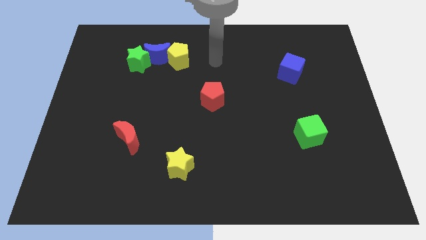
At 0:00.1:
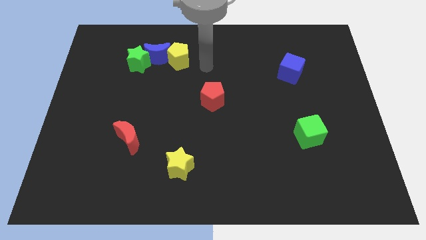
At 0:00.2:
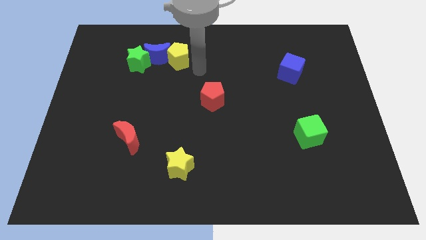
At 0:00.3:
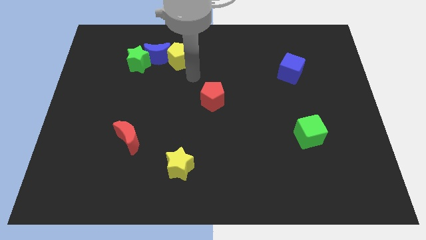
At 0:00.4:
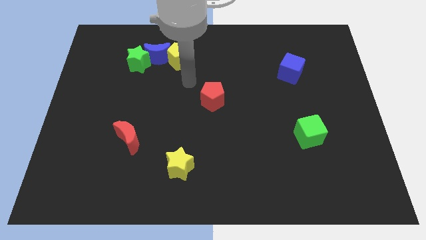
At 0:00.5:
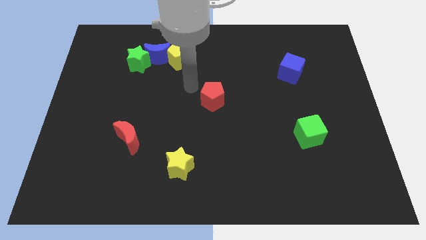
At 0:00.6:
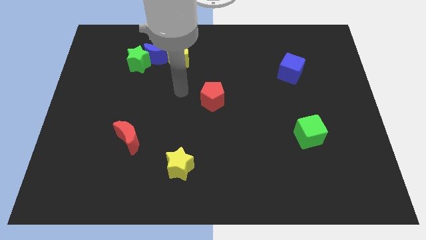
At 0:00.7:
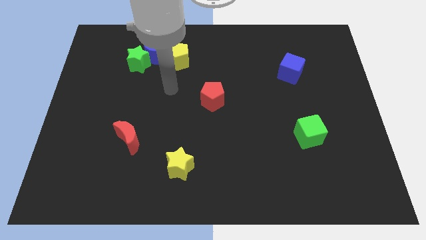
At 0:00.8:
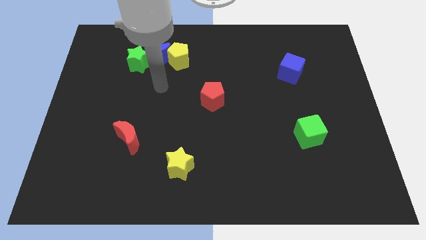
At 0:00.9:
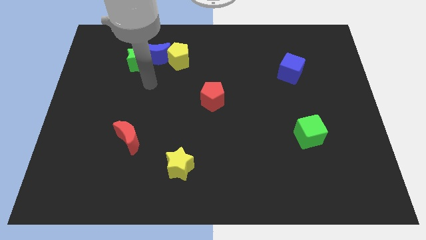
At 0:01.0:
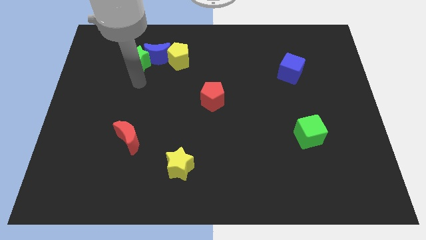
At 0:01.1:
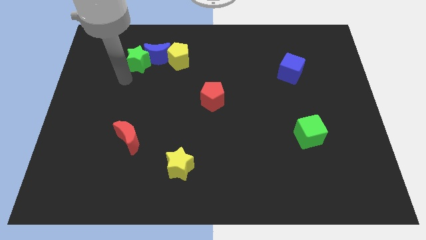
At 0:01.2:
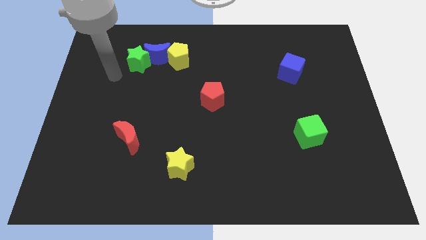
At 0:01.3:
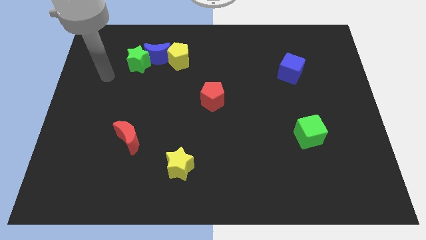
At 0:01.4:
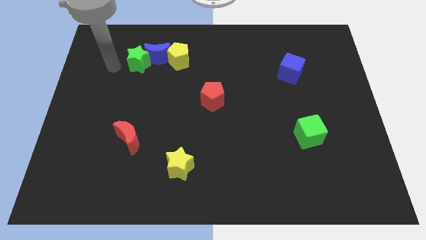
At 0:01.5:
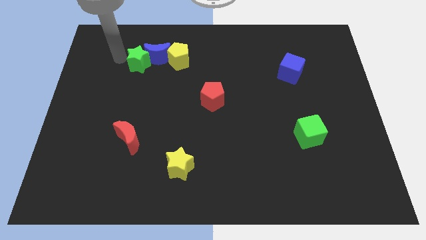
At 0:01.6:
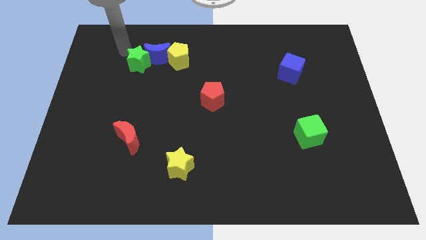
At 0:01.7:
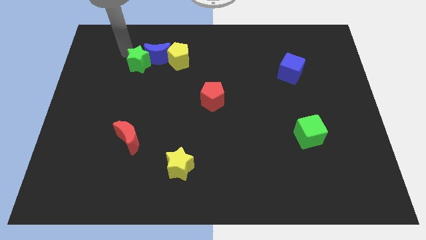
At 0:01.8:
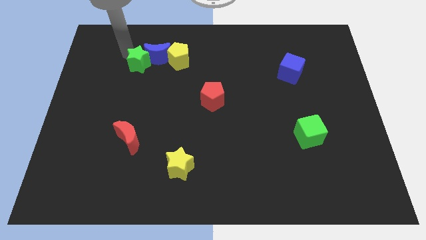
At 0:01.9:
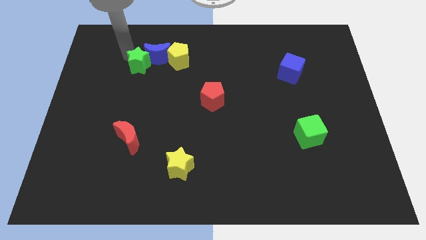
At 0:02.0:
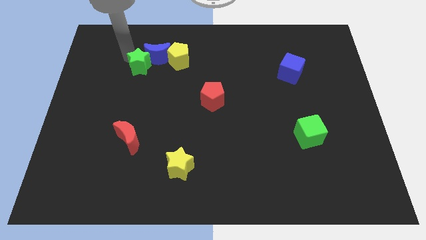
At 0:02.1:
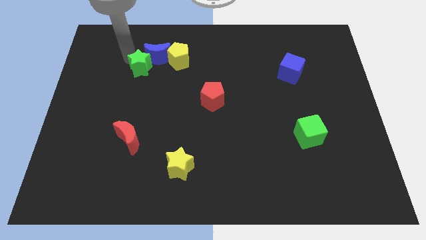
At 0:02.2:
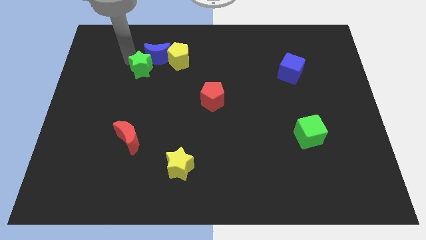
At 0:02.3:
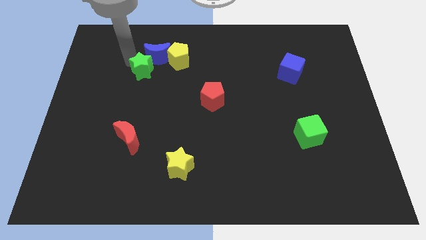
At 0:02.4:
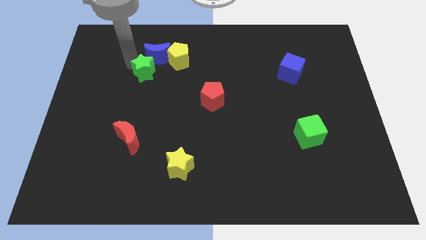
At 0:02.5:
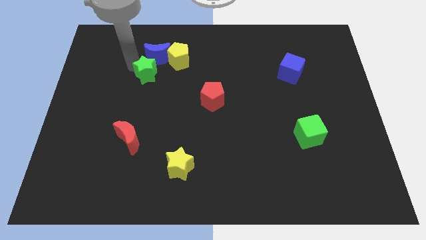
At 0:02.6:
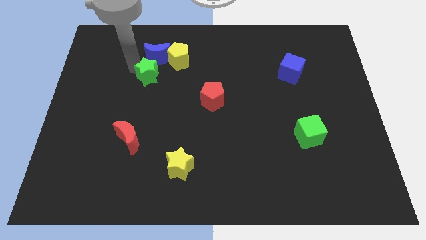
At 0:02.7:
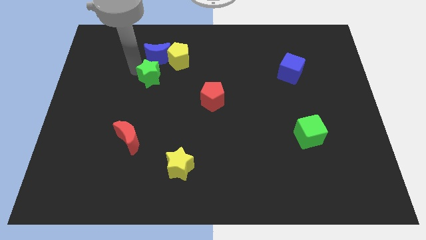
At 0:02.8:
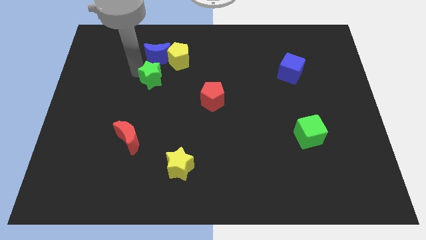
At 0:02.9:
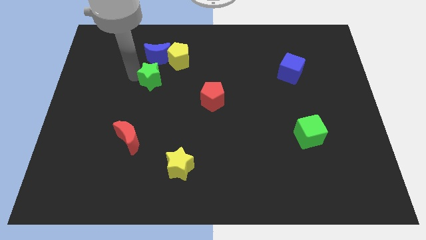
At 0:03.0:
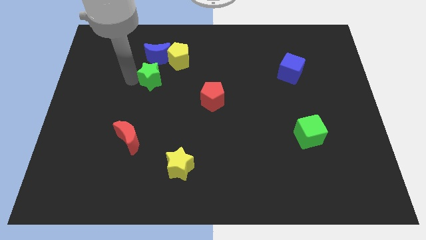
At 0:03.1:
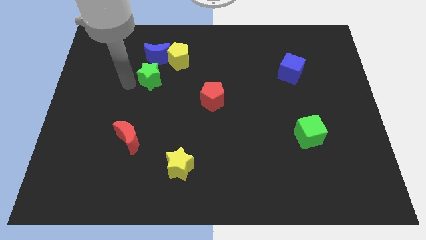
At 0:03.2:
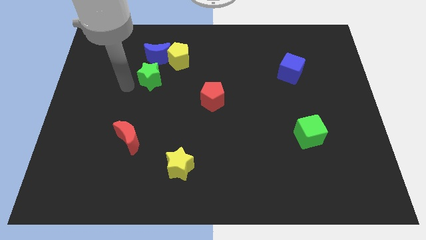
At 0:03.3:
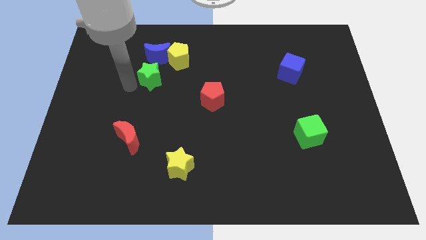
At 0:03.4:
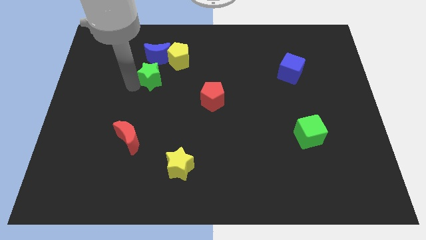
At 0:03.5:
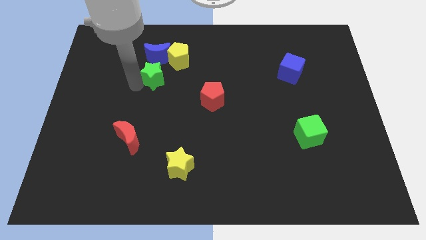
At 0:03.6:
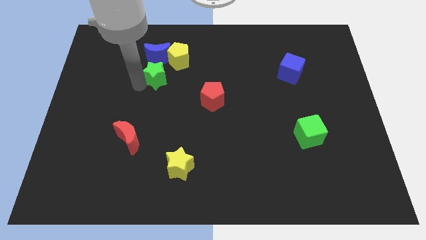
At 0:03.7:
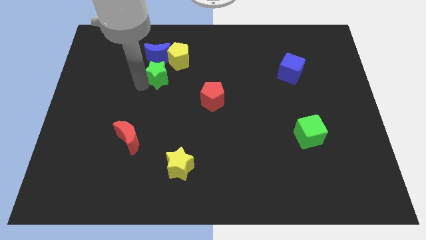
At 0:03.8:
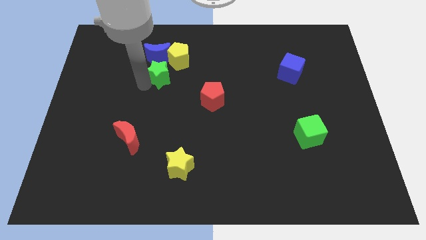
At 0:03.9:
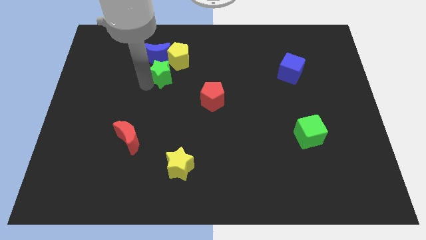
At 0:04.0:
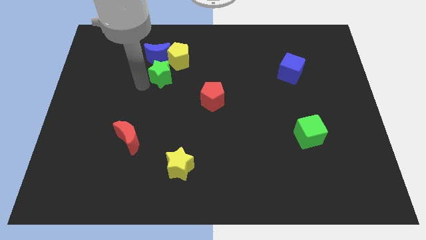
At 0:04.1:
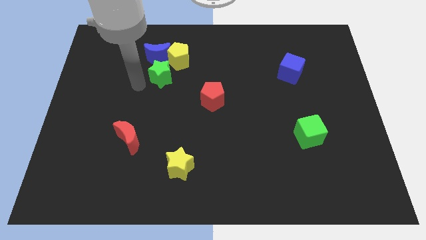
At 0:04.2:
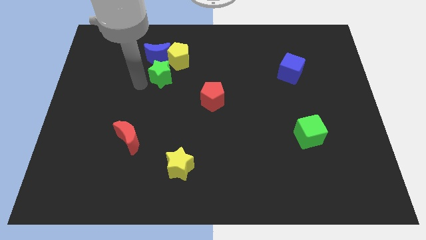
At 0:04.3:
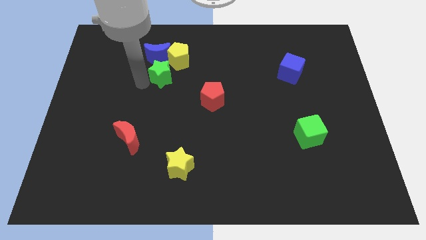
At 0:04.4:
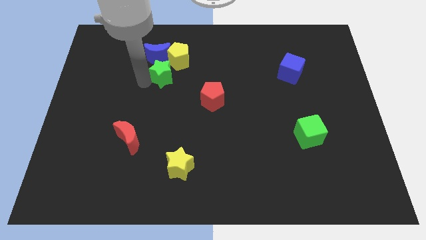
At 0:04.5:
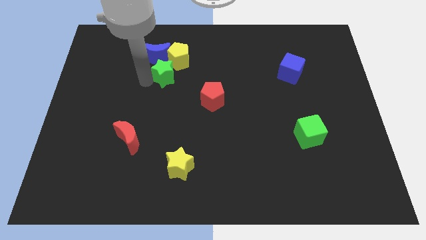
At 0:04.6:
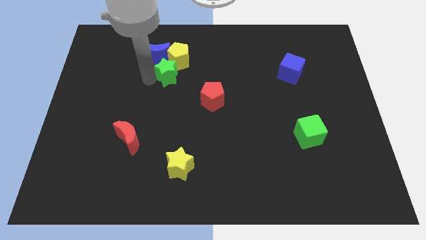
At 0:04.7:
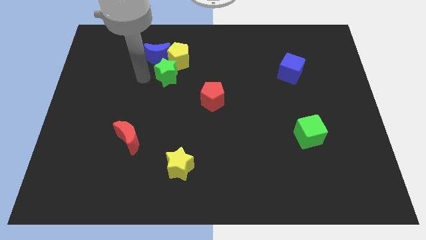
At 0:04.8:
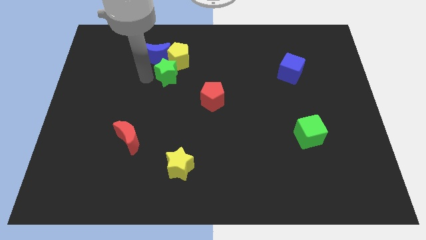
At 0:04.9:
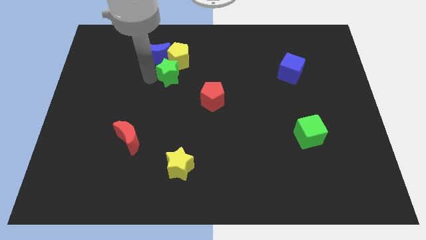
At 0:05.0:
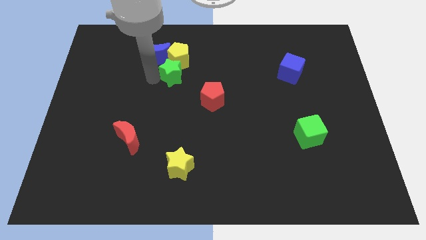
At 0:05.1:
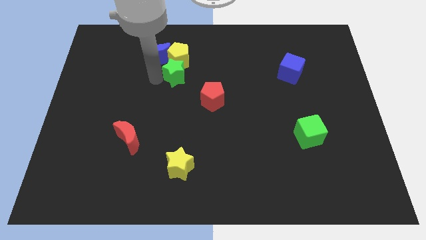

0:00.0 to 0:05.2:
push the green star diagonally down and to the right of the yellow pentagon

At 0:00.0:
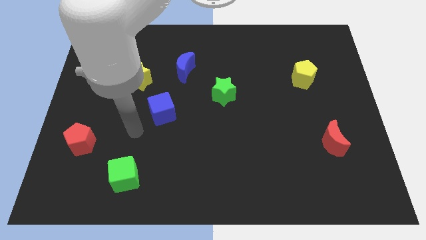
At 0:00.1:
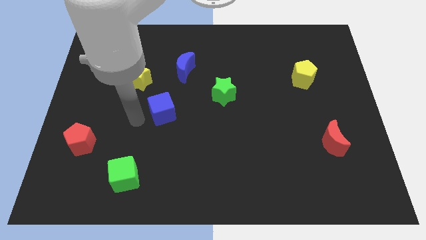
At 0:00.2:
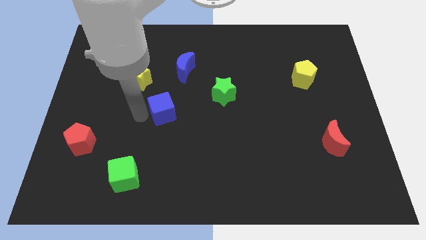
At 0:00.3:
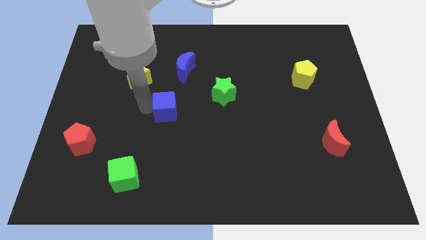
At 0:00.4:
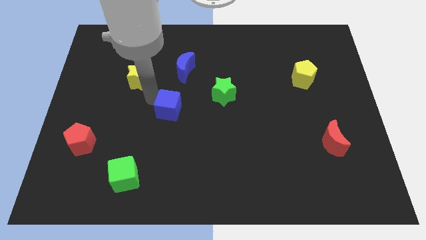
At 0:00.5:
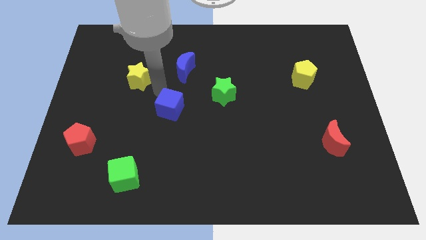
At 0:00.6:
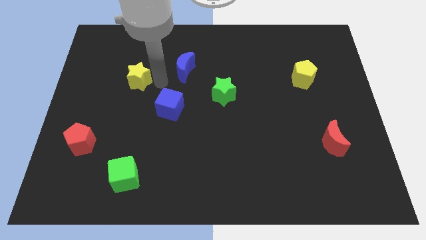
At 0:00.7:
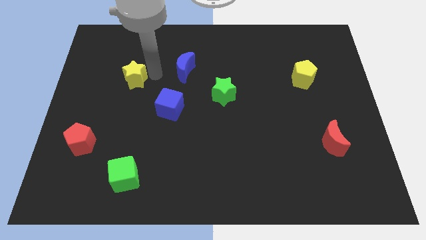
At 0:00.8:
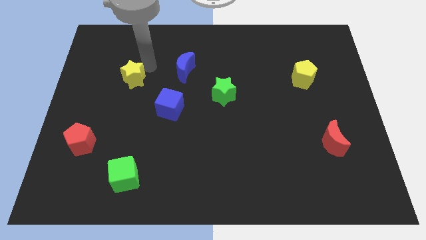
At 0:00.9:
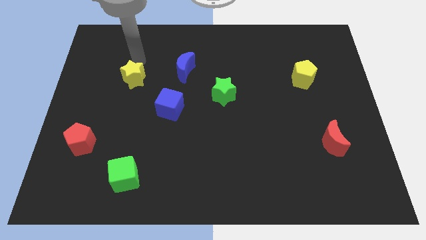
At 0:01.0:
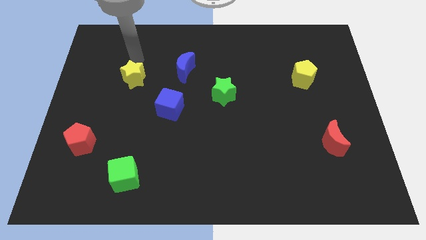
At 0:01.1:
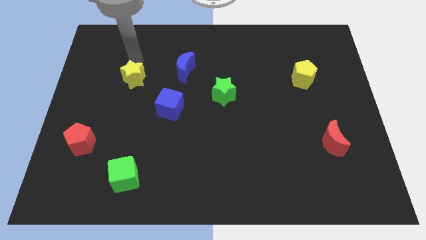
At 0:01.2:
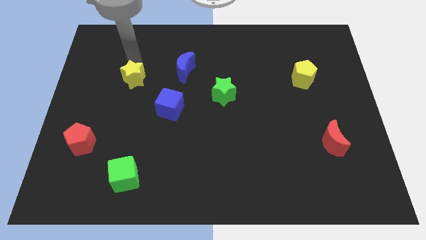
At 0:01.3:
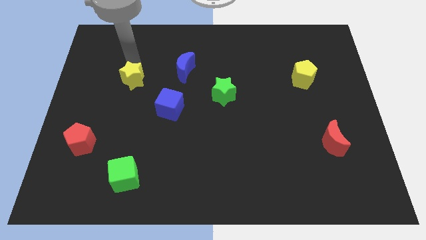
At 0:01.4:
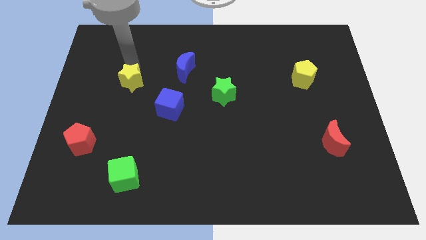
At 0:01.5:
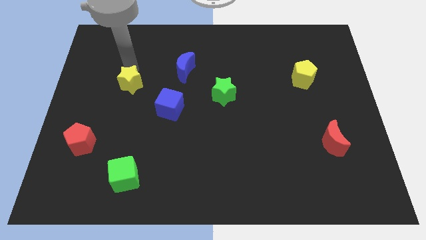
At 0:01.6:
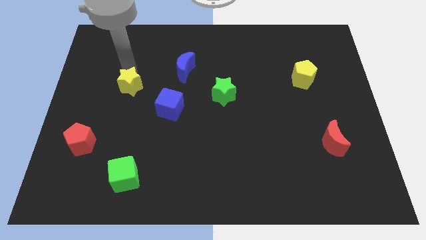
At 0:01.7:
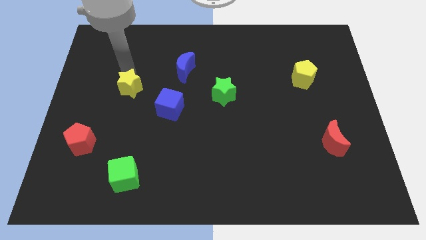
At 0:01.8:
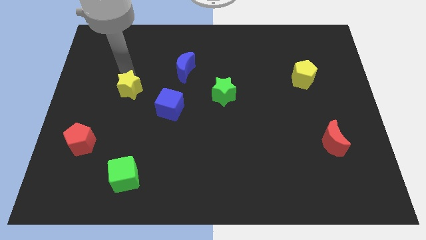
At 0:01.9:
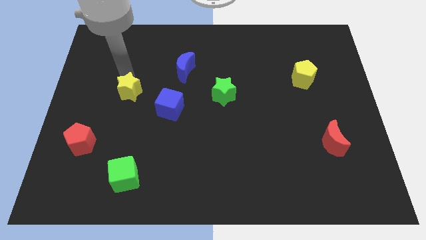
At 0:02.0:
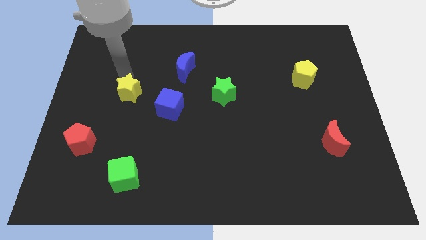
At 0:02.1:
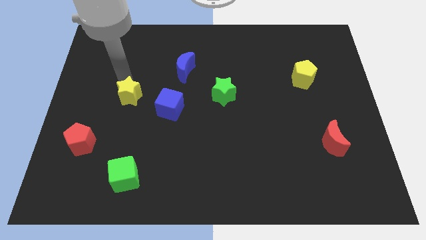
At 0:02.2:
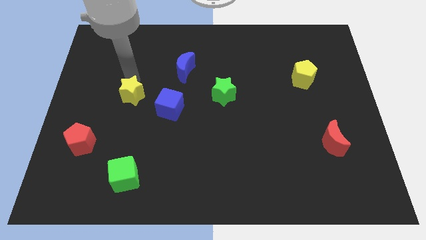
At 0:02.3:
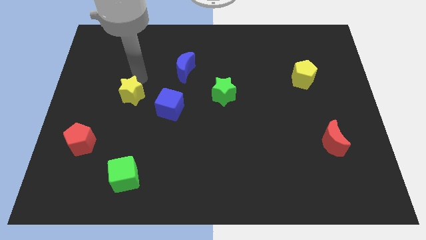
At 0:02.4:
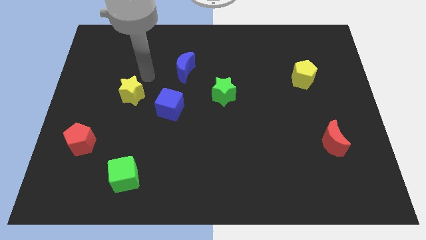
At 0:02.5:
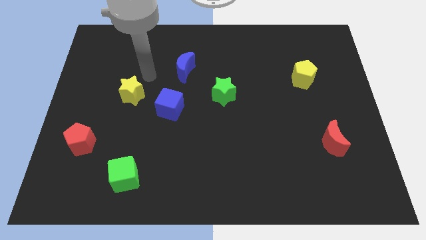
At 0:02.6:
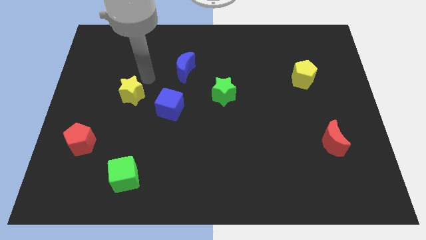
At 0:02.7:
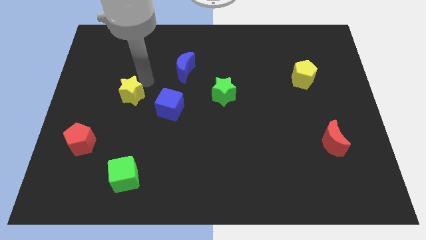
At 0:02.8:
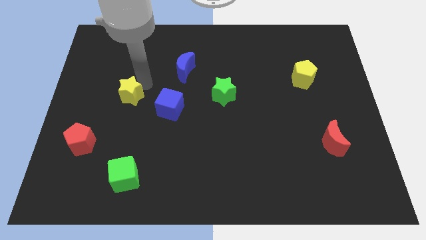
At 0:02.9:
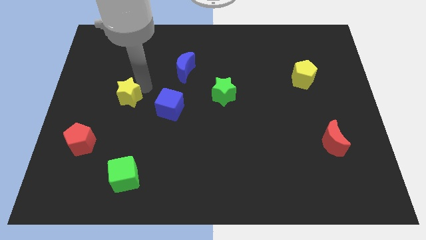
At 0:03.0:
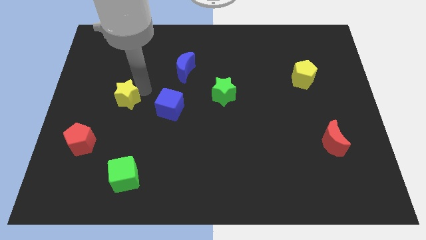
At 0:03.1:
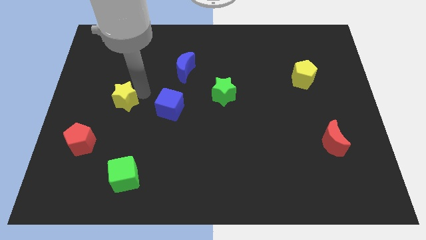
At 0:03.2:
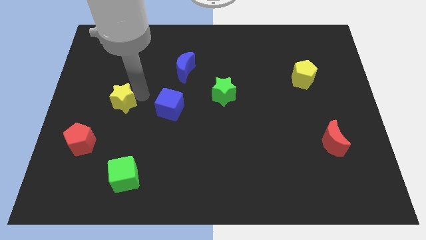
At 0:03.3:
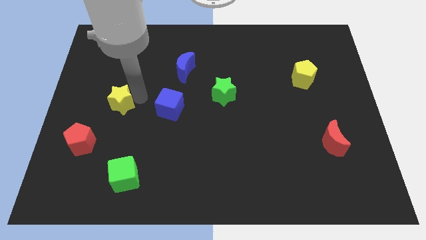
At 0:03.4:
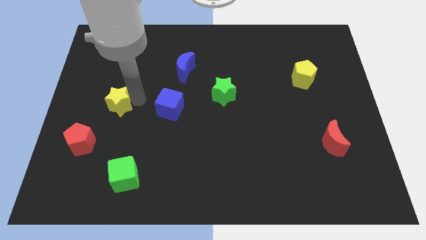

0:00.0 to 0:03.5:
move the yellow star to the top right side of the red pentagon
